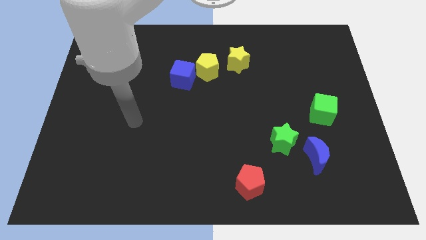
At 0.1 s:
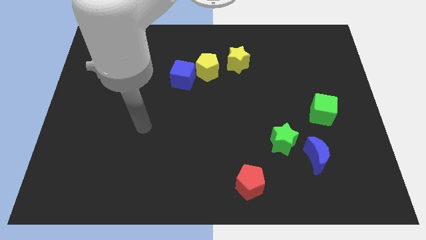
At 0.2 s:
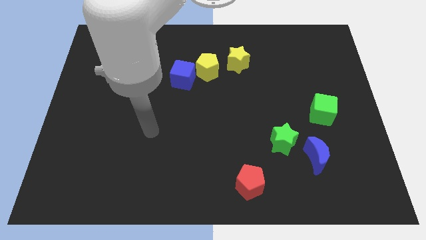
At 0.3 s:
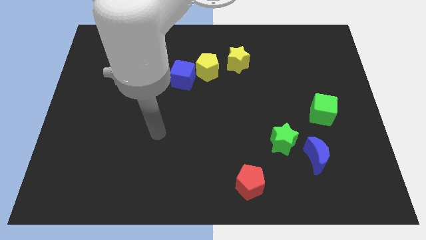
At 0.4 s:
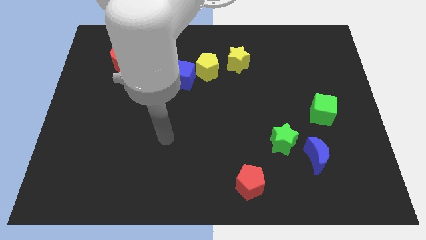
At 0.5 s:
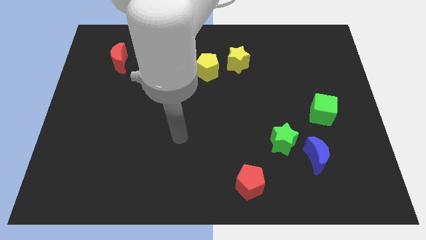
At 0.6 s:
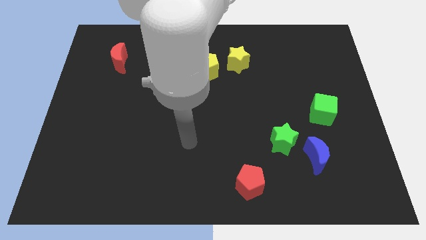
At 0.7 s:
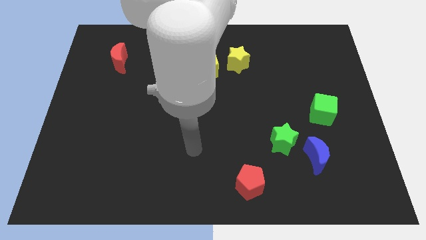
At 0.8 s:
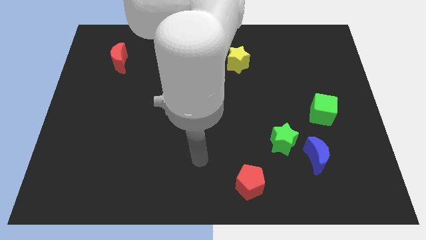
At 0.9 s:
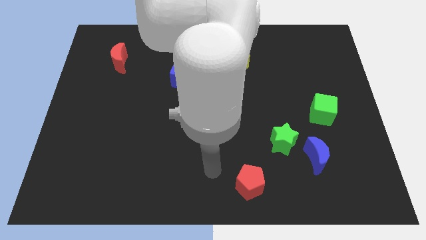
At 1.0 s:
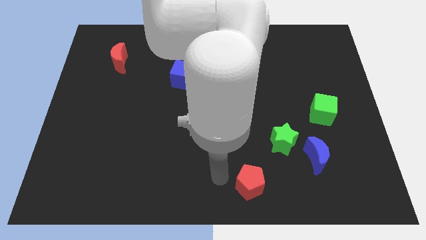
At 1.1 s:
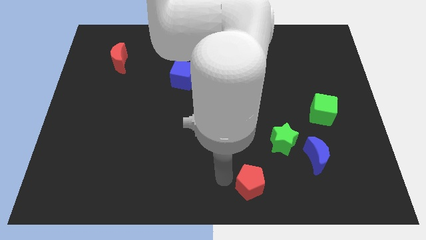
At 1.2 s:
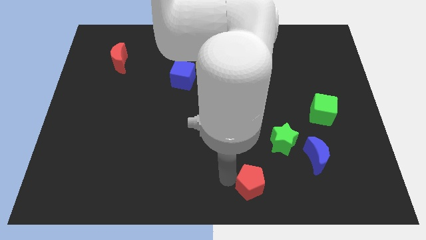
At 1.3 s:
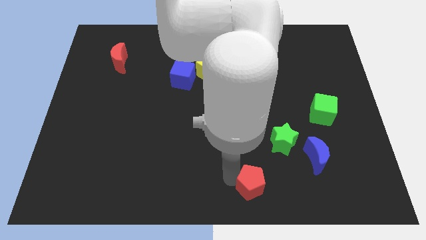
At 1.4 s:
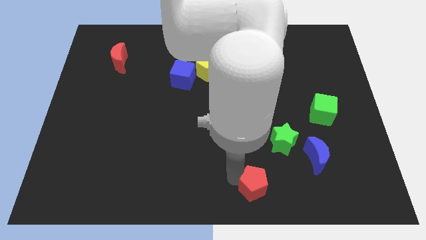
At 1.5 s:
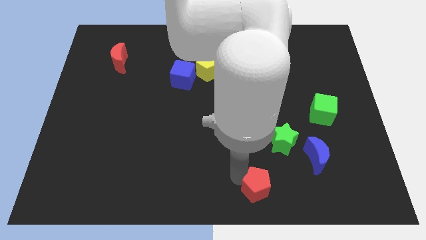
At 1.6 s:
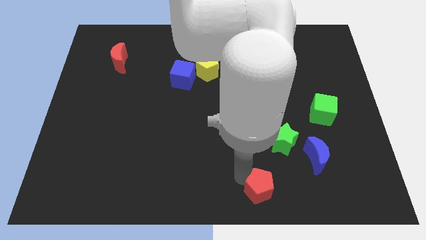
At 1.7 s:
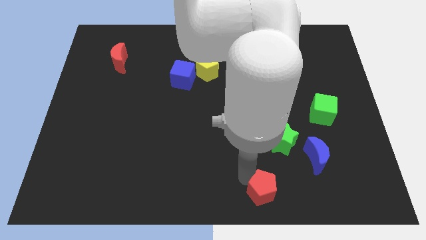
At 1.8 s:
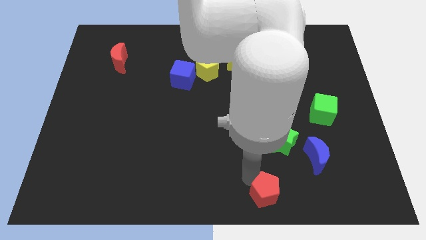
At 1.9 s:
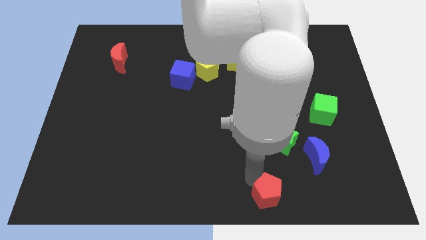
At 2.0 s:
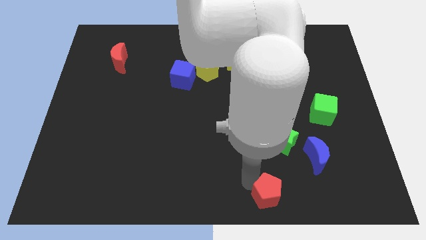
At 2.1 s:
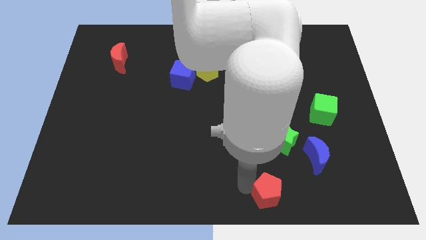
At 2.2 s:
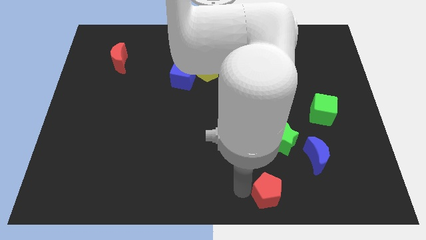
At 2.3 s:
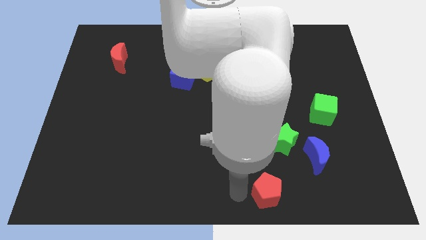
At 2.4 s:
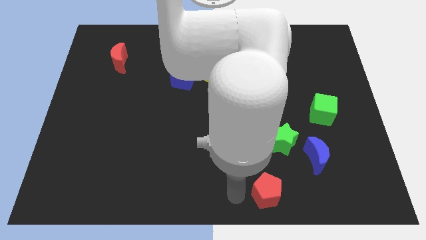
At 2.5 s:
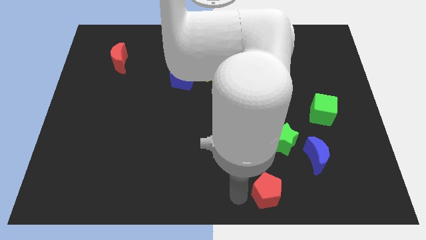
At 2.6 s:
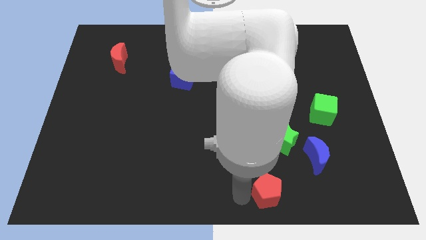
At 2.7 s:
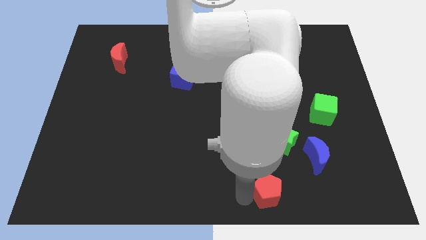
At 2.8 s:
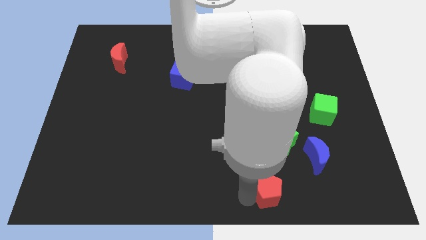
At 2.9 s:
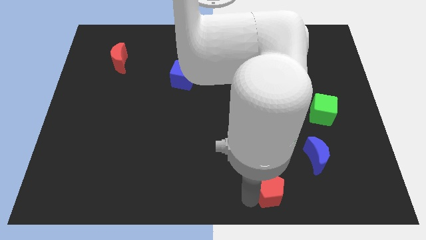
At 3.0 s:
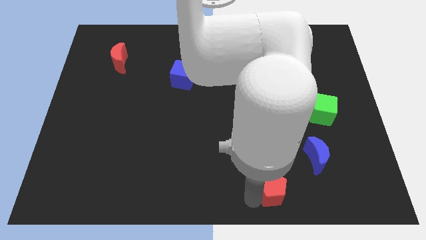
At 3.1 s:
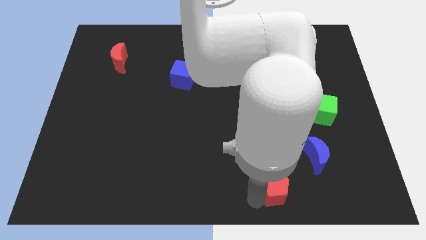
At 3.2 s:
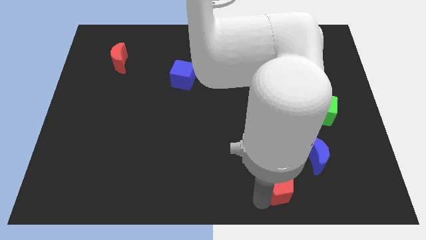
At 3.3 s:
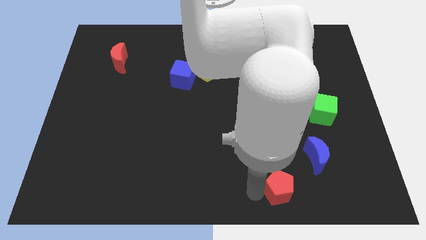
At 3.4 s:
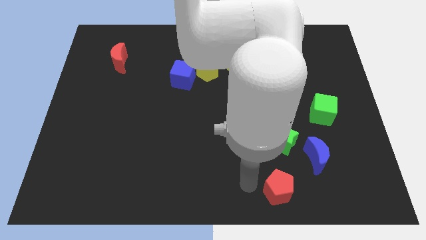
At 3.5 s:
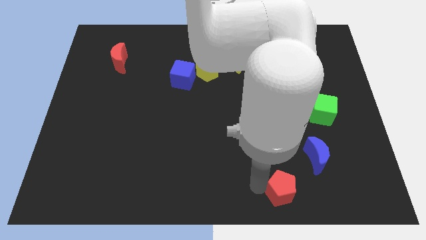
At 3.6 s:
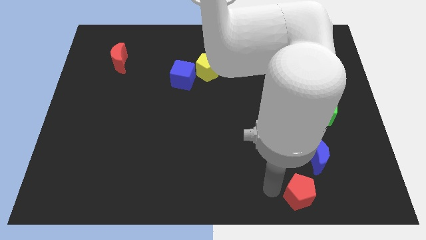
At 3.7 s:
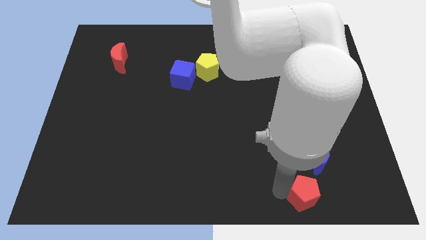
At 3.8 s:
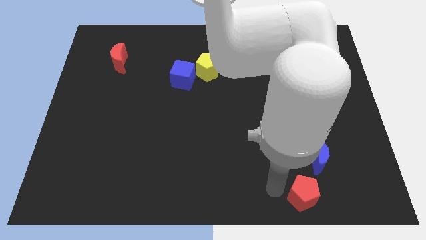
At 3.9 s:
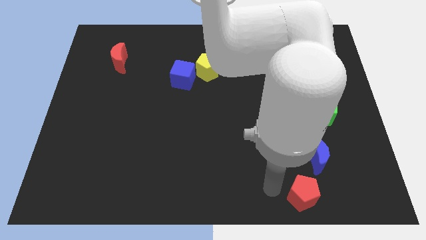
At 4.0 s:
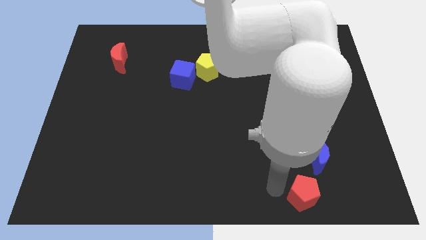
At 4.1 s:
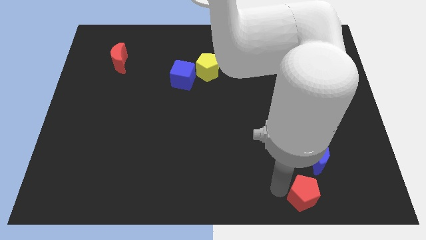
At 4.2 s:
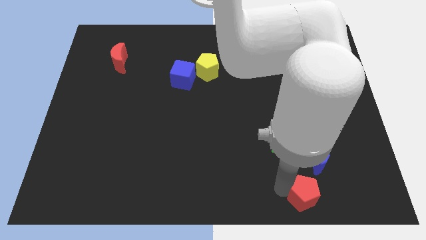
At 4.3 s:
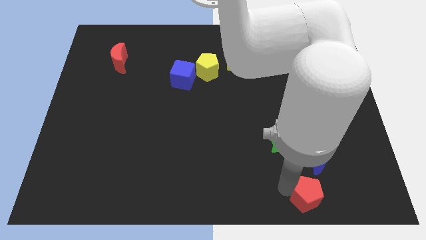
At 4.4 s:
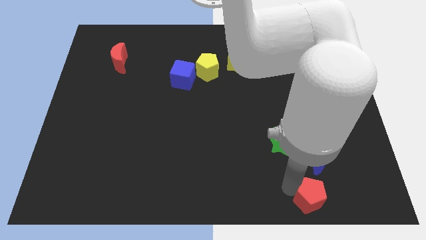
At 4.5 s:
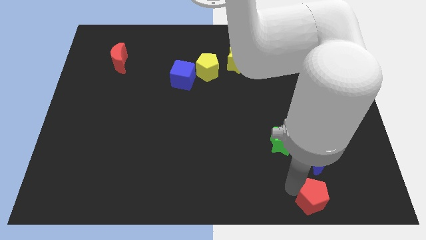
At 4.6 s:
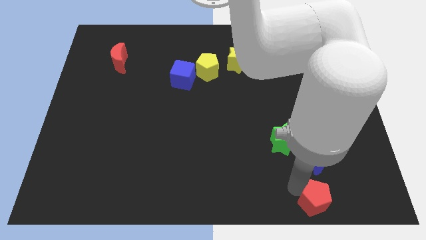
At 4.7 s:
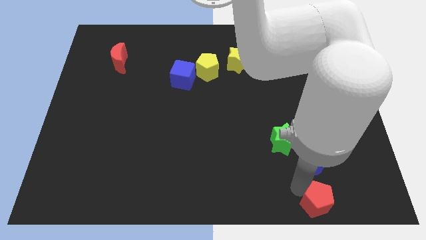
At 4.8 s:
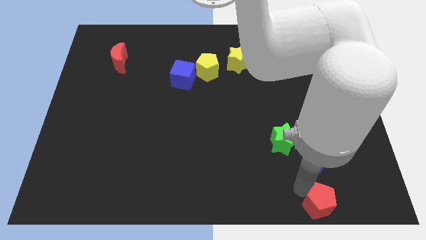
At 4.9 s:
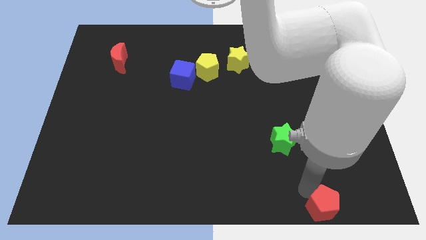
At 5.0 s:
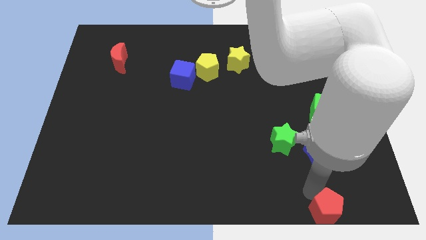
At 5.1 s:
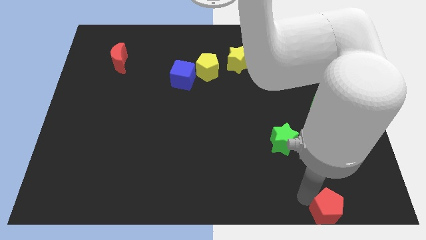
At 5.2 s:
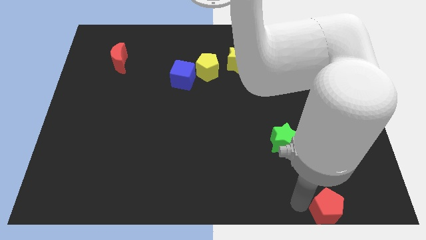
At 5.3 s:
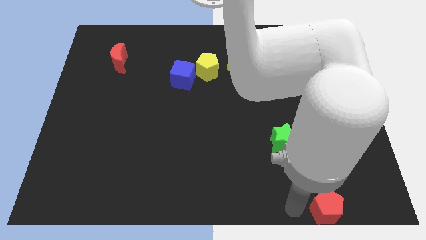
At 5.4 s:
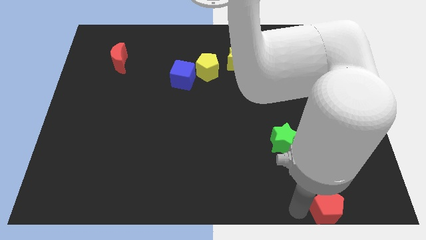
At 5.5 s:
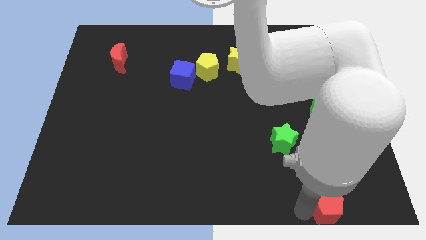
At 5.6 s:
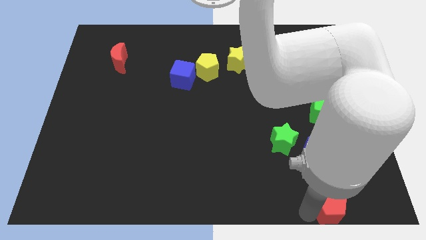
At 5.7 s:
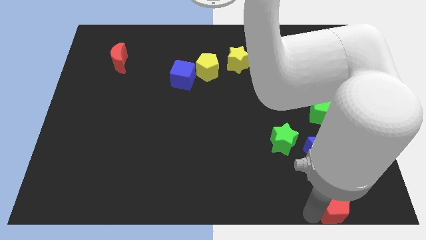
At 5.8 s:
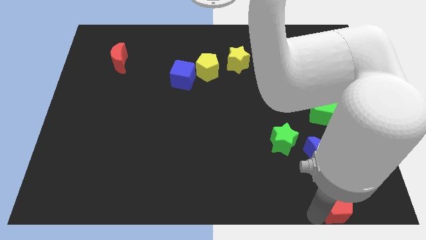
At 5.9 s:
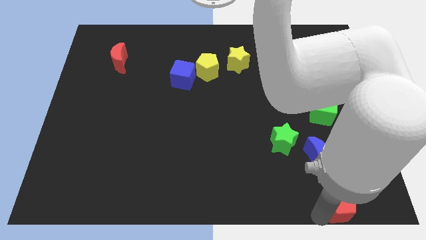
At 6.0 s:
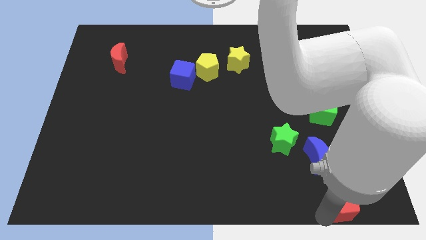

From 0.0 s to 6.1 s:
move the red pentagon to the lower right corner
